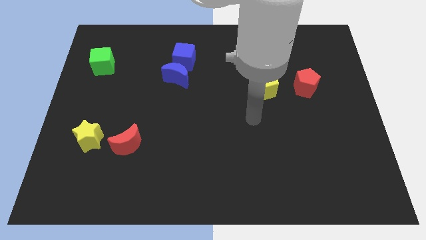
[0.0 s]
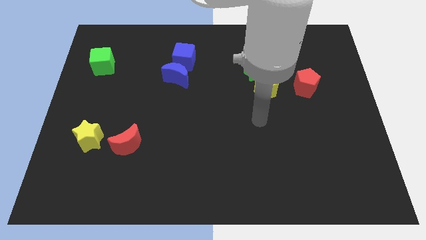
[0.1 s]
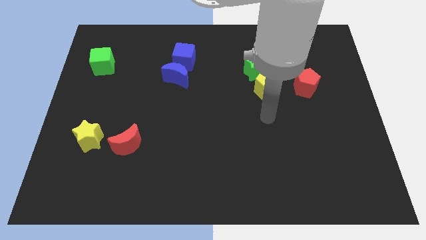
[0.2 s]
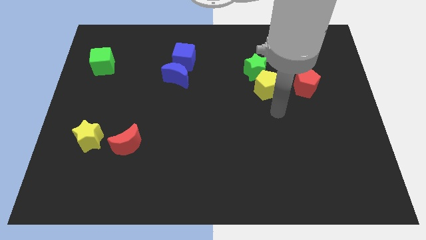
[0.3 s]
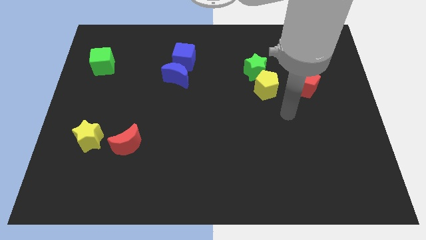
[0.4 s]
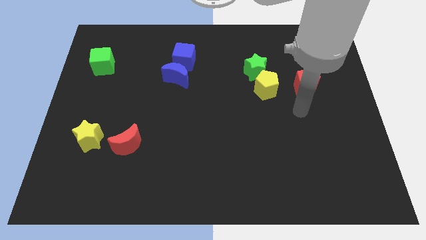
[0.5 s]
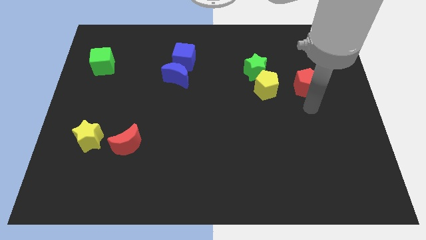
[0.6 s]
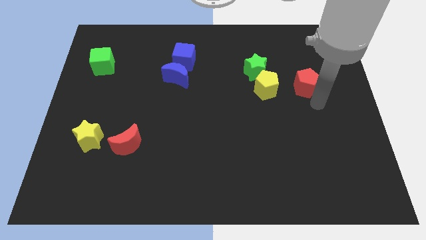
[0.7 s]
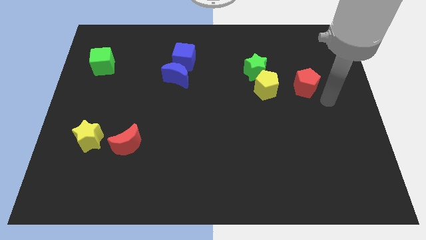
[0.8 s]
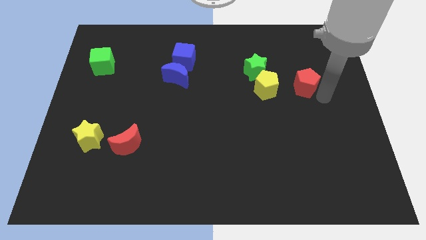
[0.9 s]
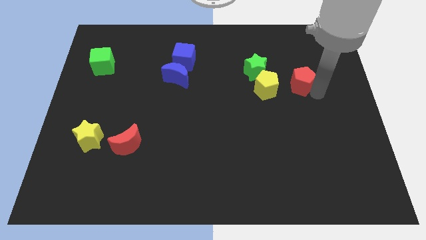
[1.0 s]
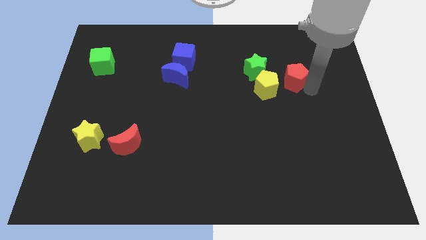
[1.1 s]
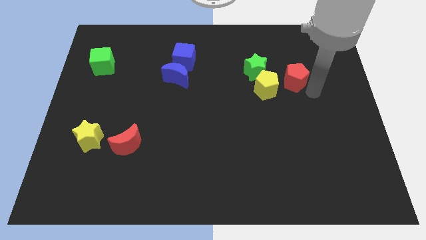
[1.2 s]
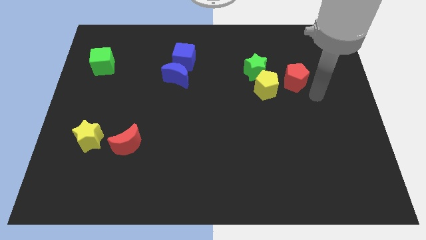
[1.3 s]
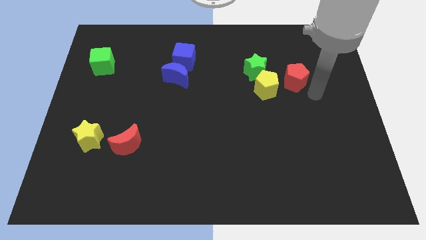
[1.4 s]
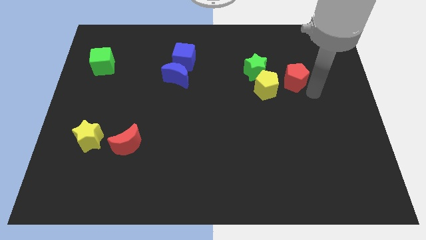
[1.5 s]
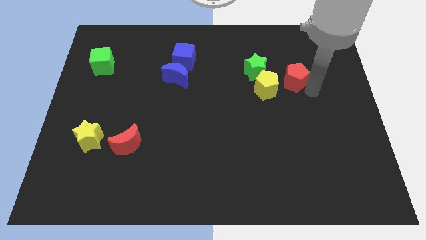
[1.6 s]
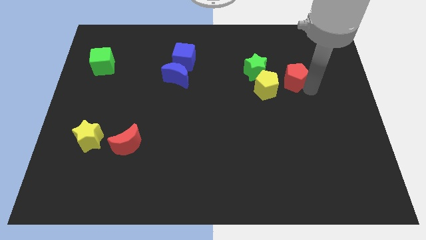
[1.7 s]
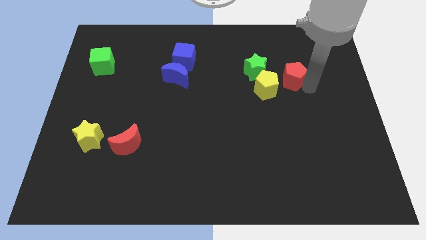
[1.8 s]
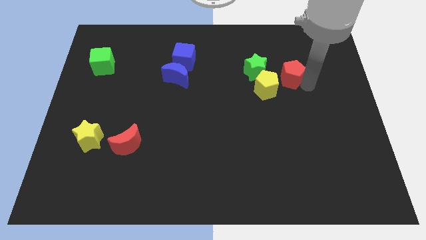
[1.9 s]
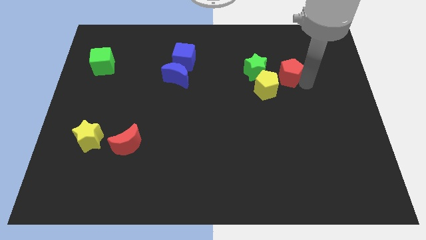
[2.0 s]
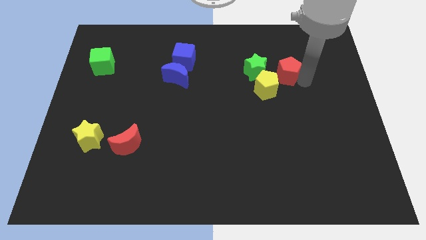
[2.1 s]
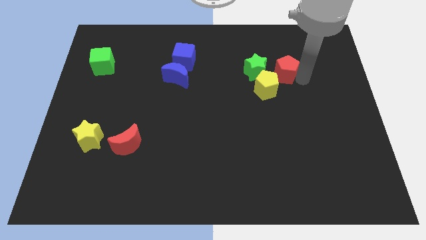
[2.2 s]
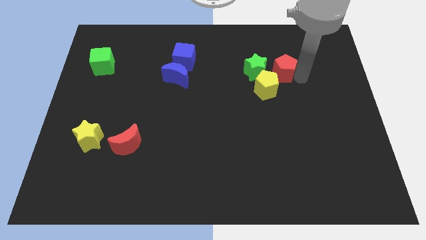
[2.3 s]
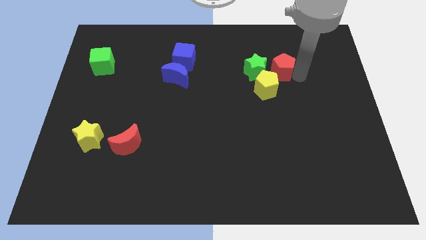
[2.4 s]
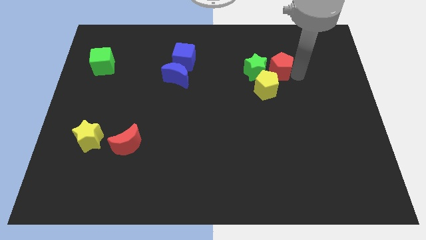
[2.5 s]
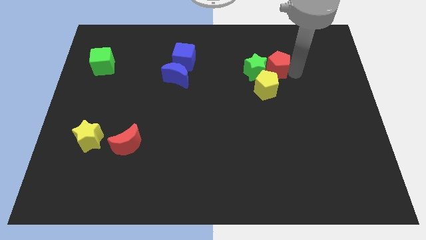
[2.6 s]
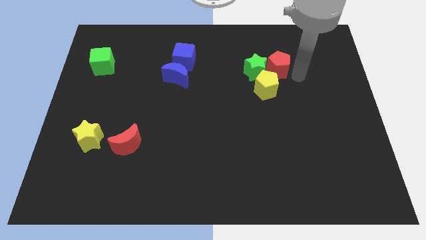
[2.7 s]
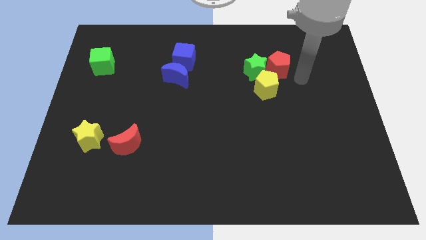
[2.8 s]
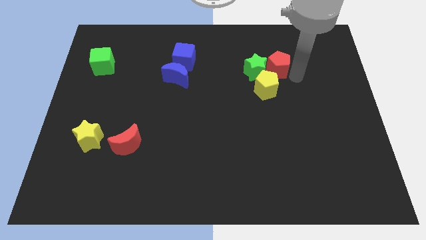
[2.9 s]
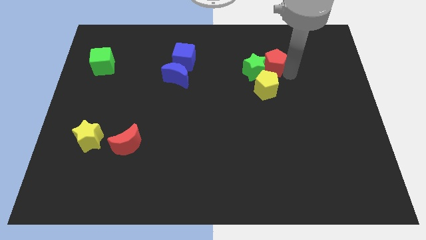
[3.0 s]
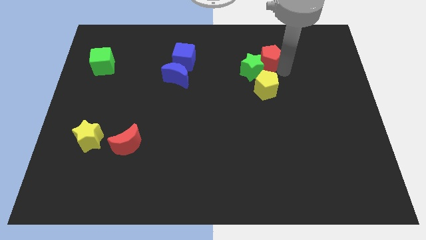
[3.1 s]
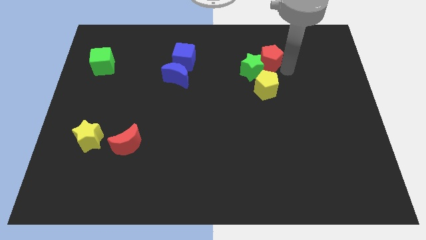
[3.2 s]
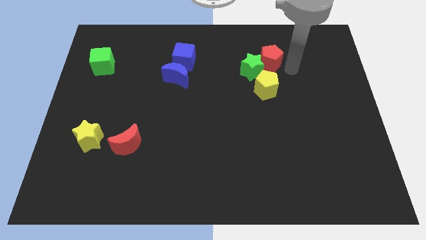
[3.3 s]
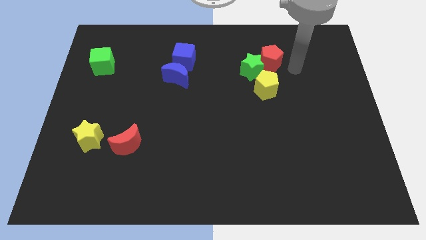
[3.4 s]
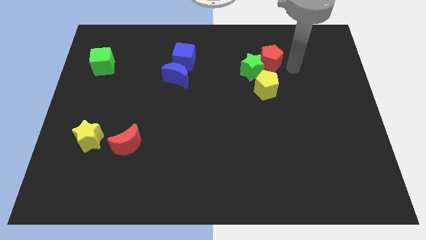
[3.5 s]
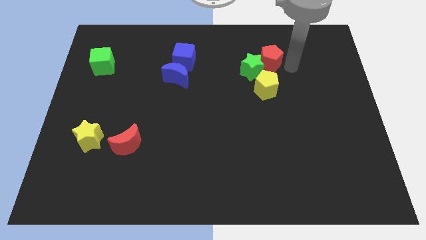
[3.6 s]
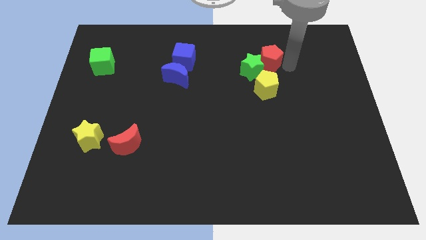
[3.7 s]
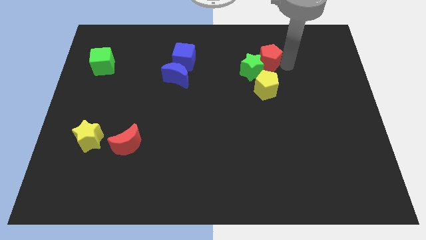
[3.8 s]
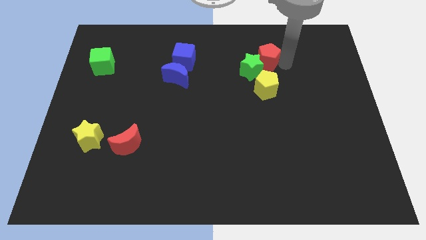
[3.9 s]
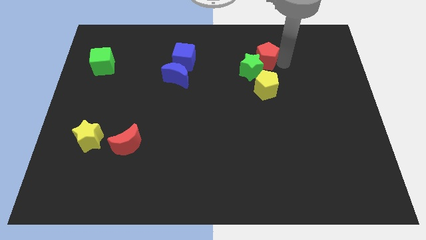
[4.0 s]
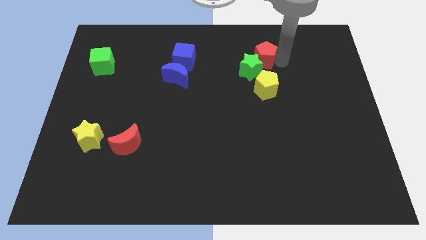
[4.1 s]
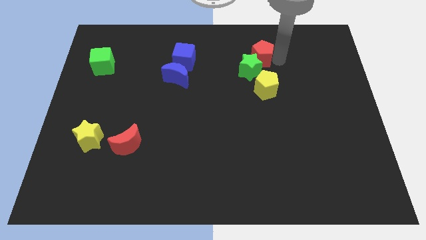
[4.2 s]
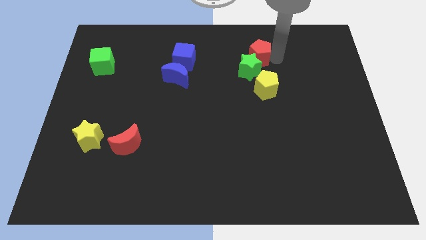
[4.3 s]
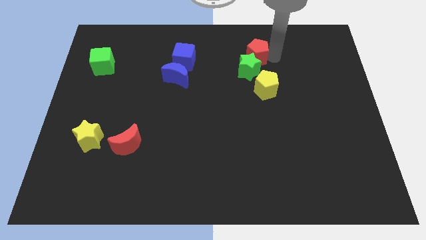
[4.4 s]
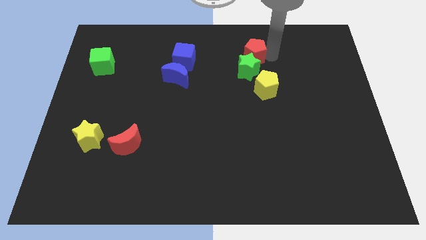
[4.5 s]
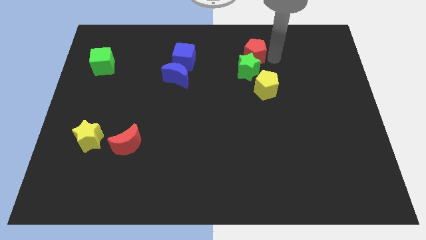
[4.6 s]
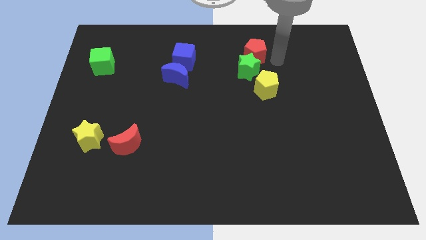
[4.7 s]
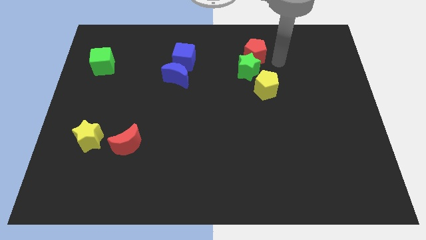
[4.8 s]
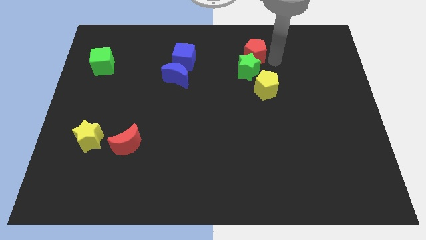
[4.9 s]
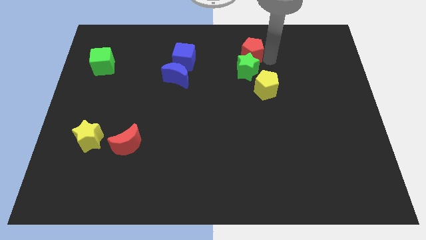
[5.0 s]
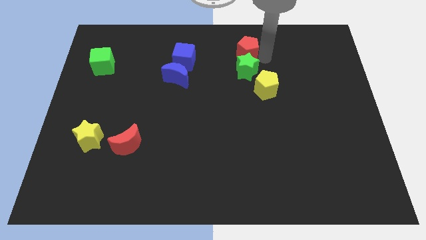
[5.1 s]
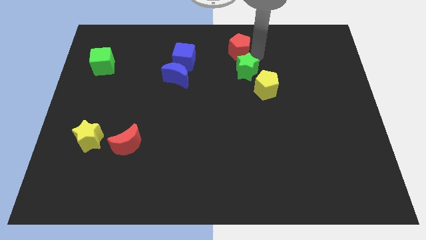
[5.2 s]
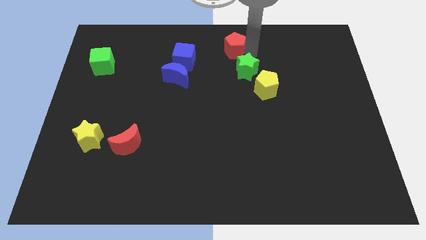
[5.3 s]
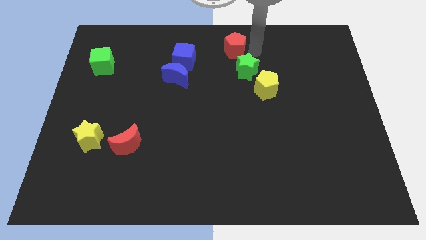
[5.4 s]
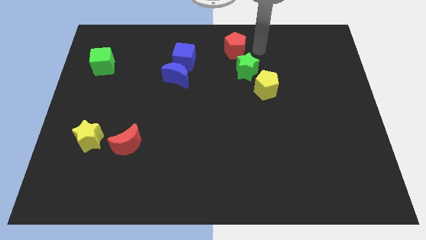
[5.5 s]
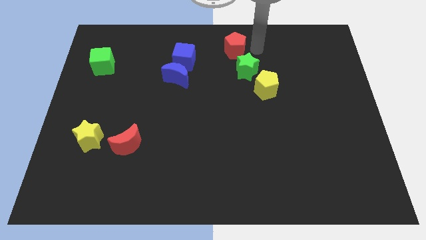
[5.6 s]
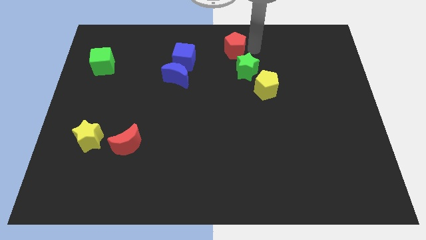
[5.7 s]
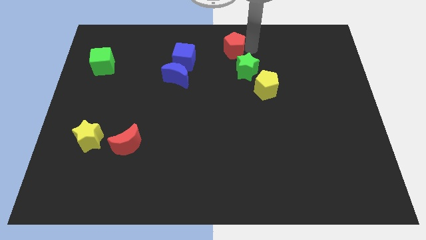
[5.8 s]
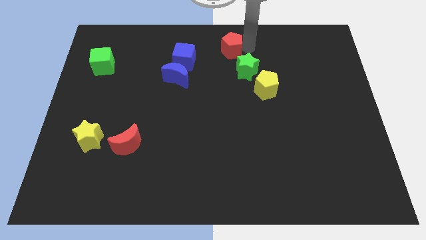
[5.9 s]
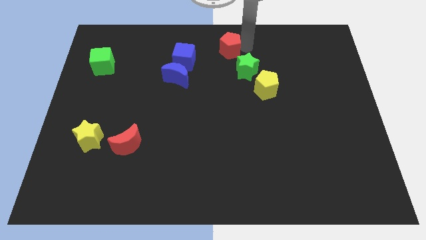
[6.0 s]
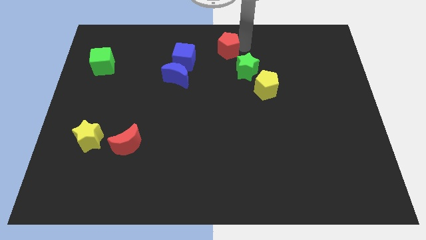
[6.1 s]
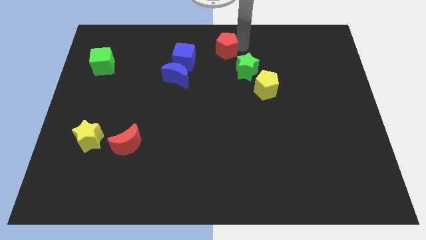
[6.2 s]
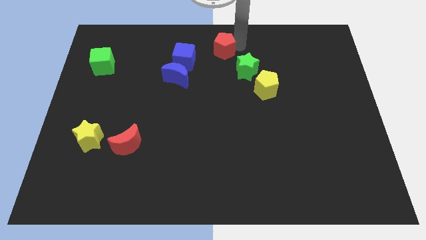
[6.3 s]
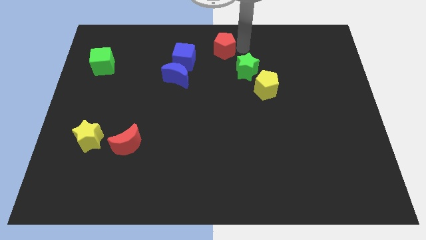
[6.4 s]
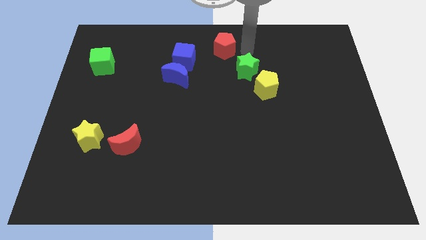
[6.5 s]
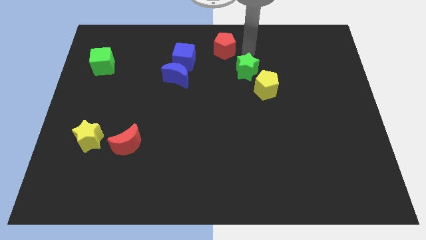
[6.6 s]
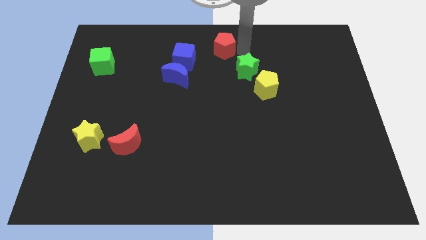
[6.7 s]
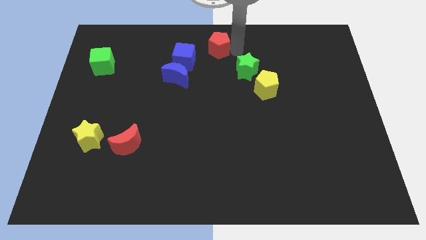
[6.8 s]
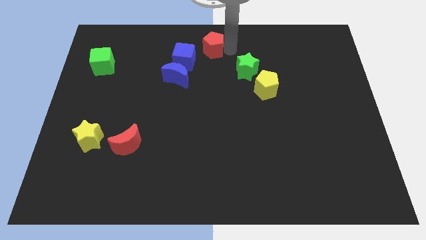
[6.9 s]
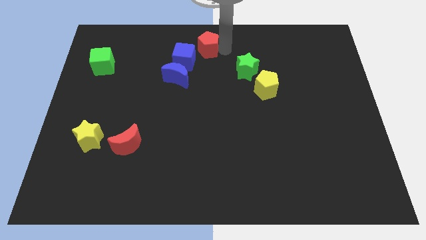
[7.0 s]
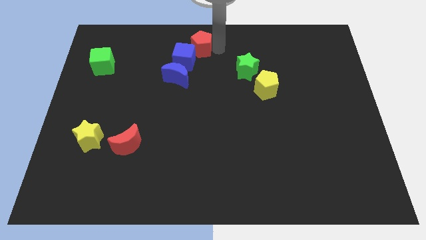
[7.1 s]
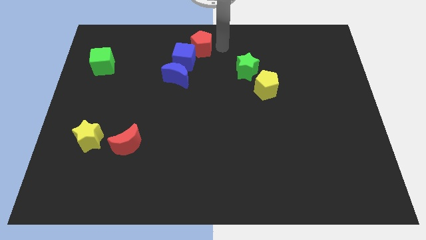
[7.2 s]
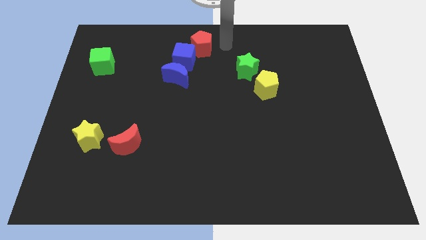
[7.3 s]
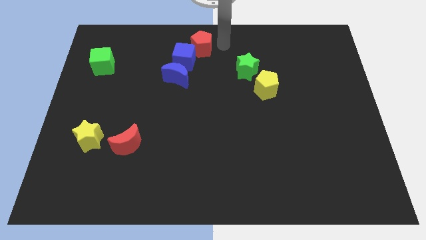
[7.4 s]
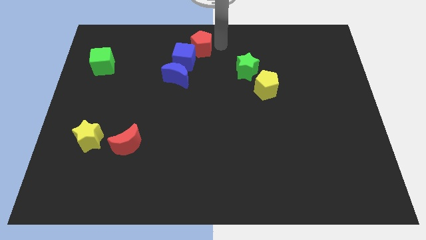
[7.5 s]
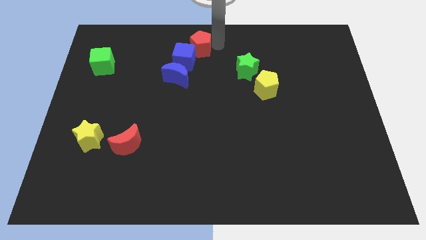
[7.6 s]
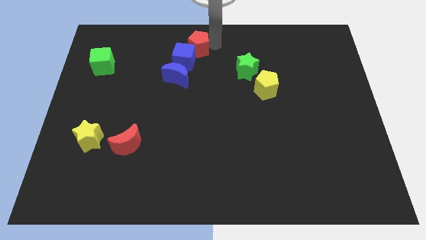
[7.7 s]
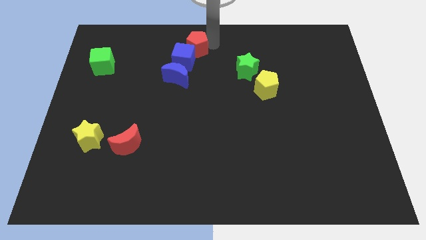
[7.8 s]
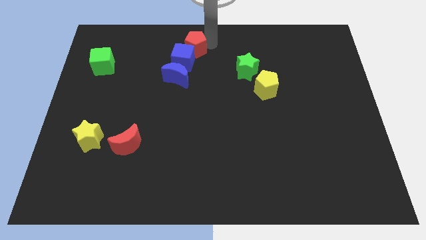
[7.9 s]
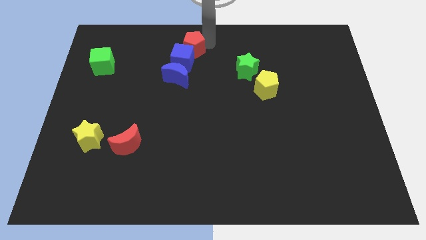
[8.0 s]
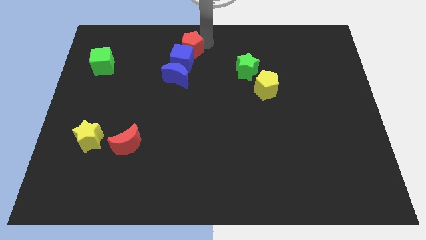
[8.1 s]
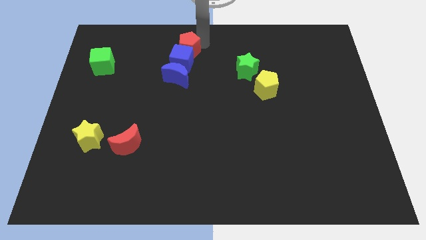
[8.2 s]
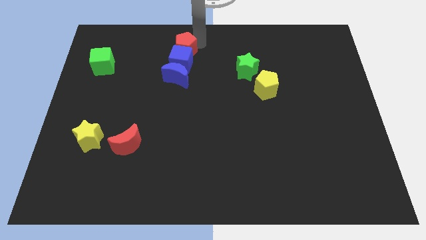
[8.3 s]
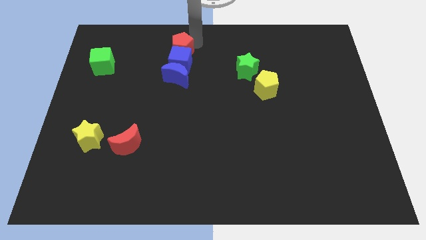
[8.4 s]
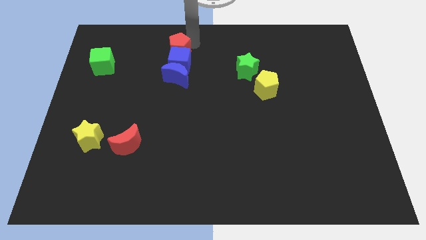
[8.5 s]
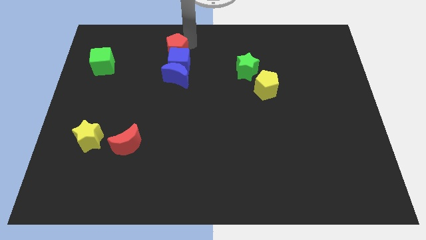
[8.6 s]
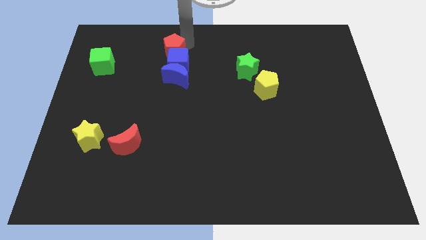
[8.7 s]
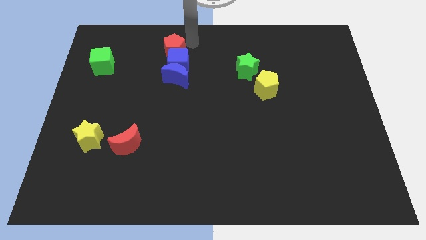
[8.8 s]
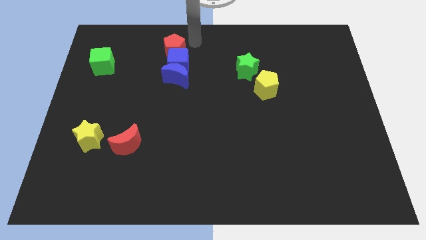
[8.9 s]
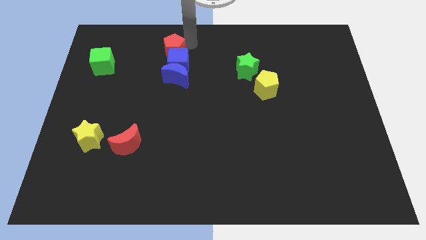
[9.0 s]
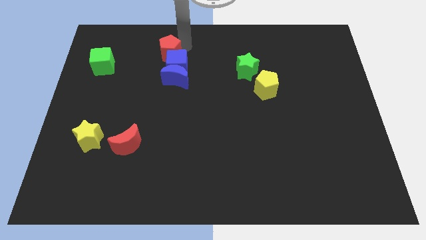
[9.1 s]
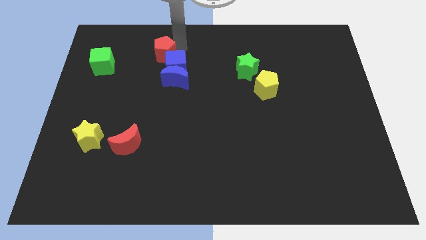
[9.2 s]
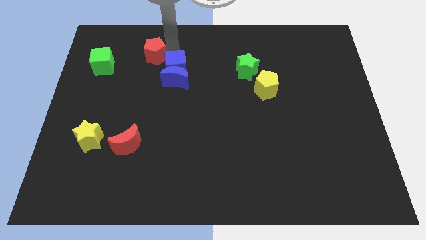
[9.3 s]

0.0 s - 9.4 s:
push the red pentagon just left of the blue cube
